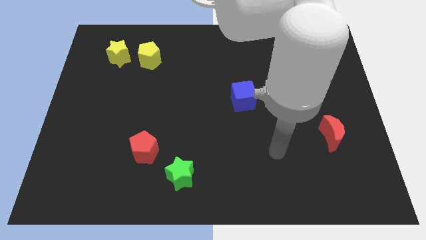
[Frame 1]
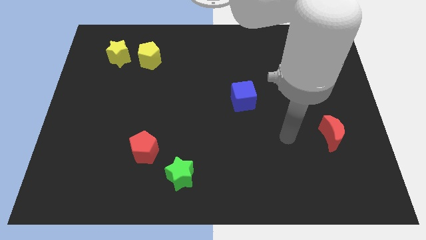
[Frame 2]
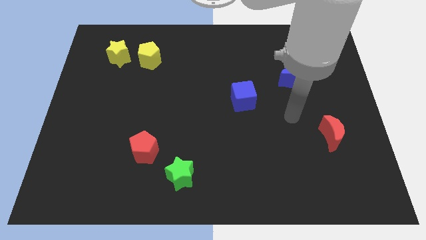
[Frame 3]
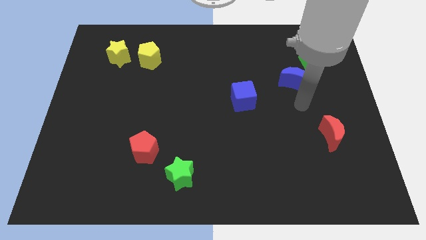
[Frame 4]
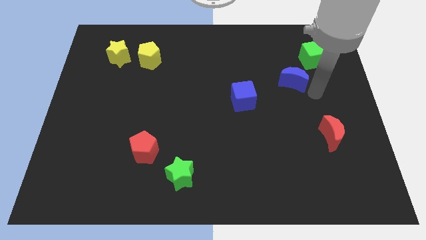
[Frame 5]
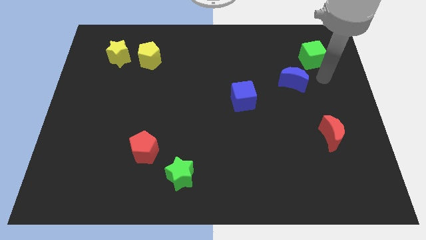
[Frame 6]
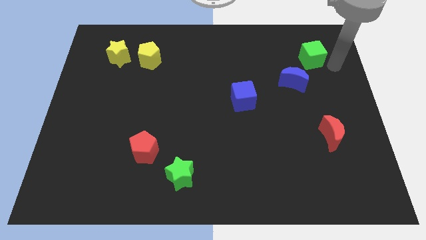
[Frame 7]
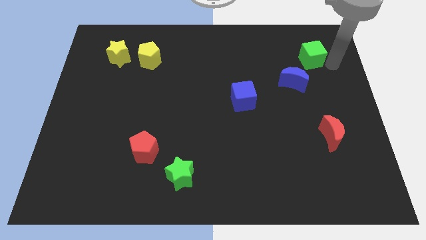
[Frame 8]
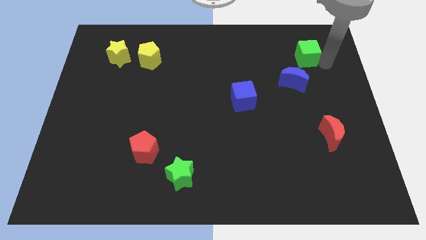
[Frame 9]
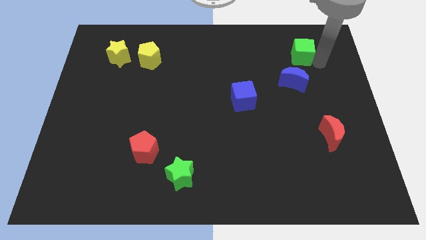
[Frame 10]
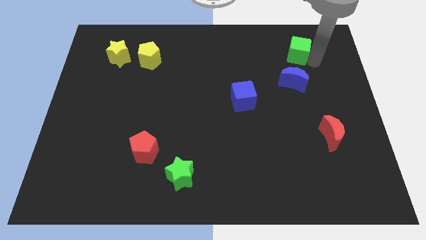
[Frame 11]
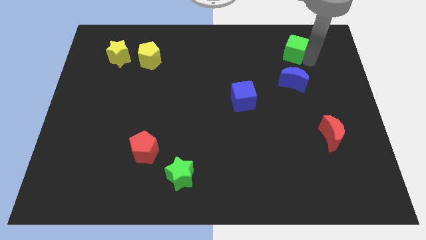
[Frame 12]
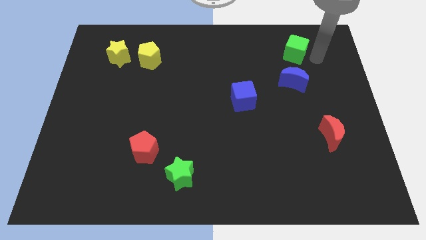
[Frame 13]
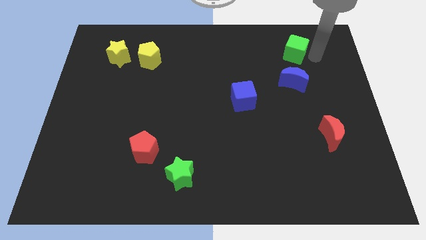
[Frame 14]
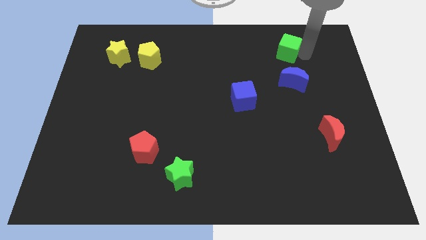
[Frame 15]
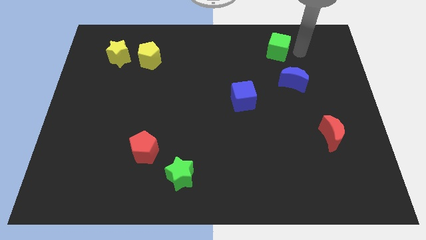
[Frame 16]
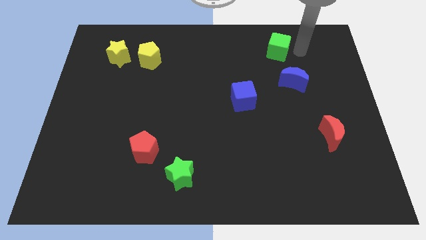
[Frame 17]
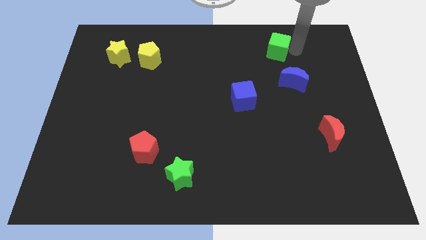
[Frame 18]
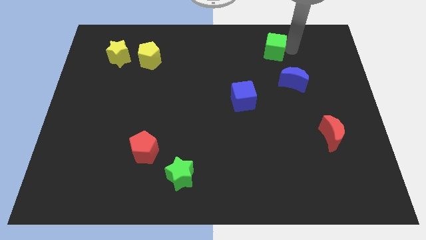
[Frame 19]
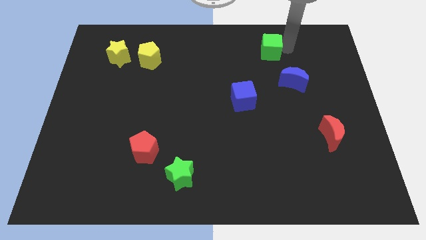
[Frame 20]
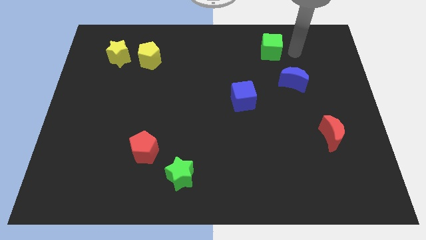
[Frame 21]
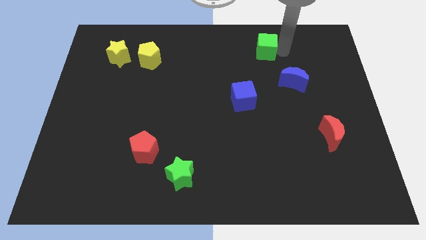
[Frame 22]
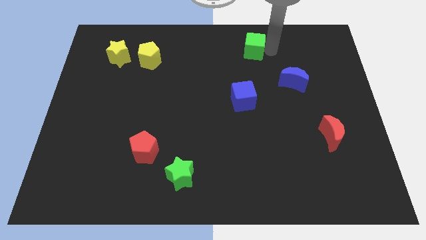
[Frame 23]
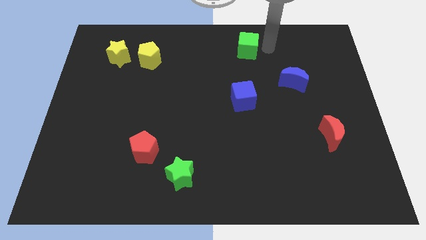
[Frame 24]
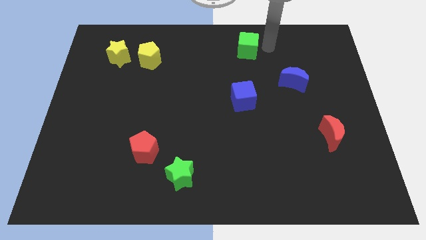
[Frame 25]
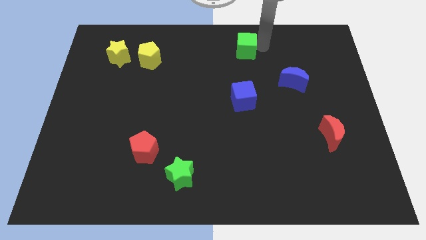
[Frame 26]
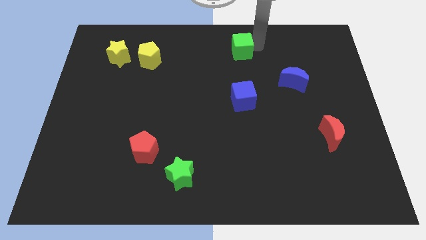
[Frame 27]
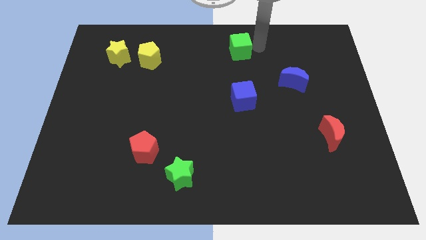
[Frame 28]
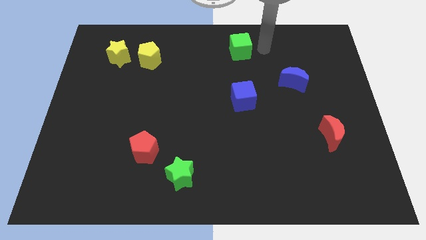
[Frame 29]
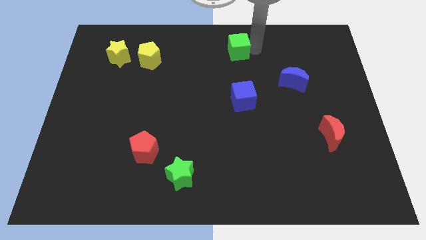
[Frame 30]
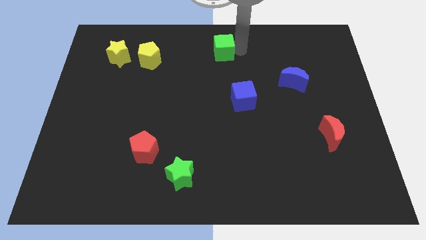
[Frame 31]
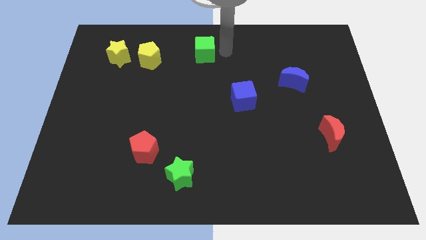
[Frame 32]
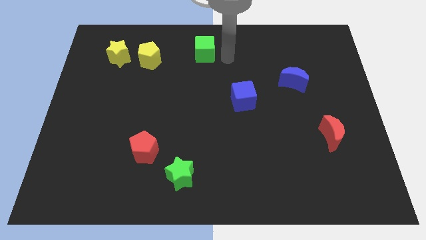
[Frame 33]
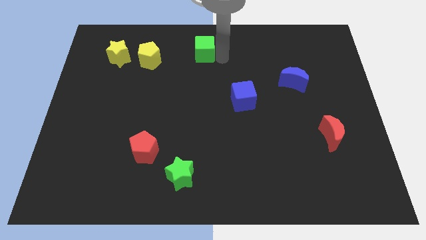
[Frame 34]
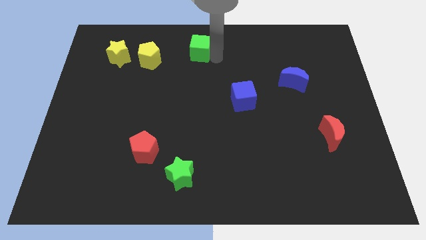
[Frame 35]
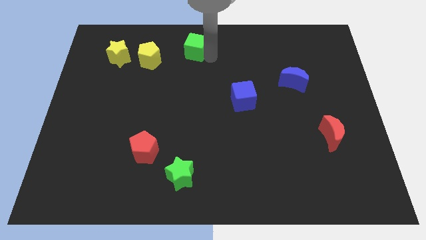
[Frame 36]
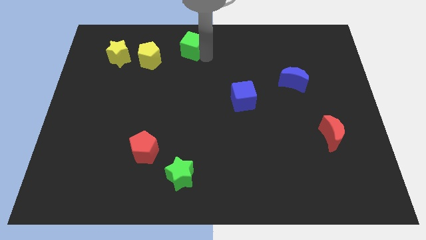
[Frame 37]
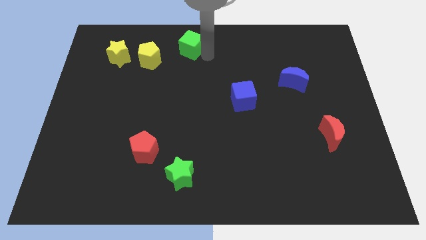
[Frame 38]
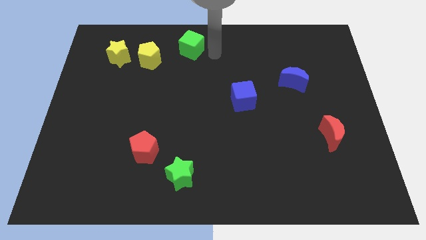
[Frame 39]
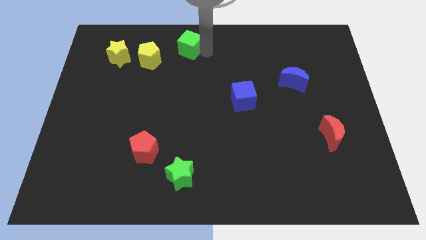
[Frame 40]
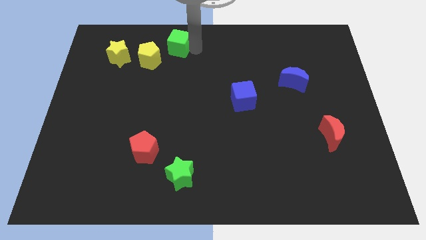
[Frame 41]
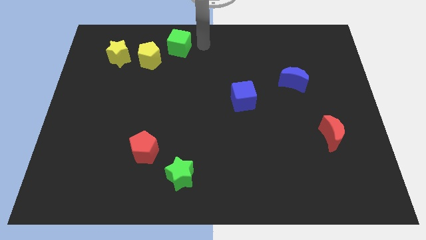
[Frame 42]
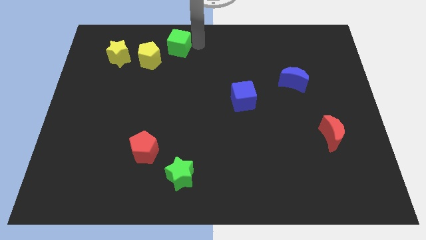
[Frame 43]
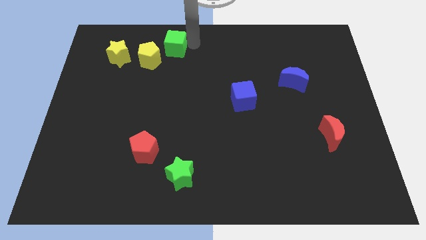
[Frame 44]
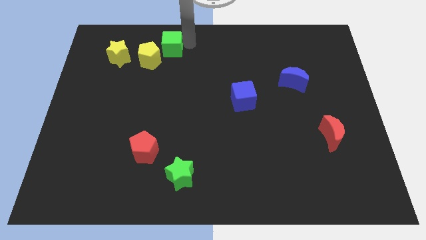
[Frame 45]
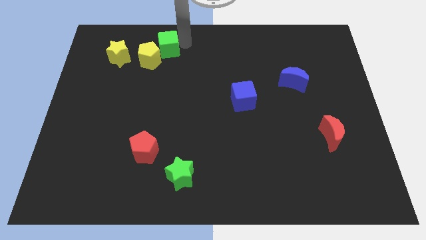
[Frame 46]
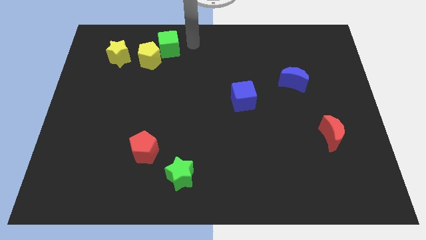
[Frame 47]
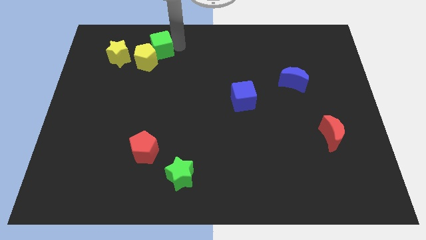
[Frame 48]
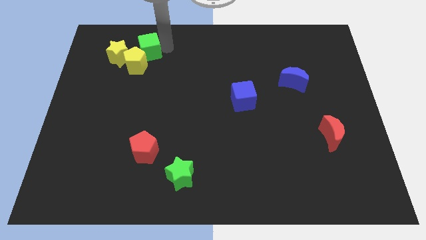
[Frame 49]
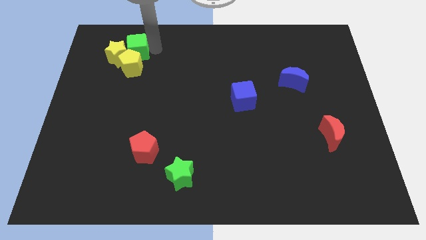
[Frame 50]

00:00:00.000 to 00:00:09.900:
put the green cube next to the yellow star

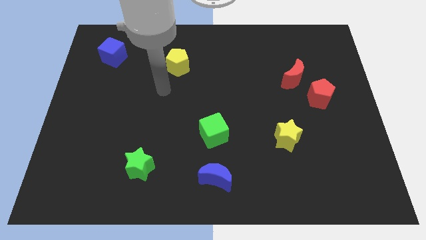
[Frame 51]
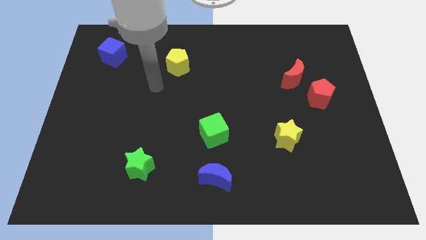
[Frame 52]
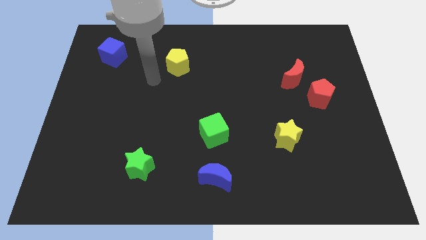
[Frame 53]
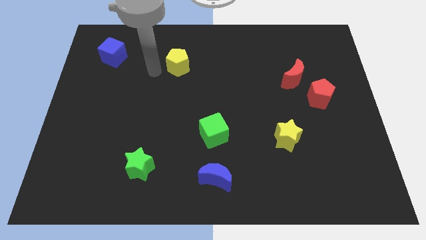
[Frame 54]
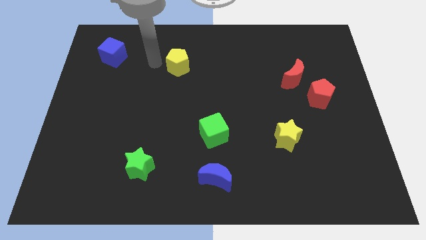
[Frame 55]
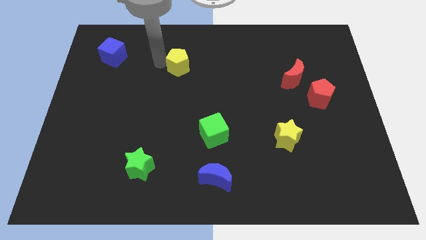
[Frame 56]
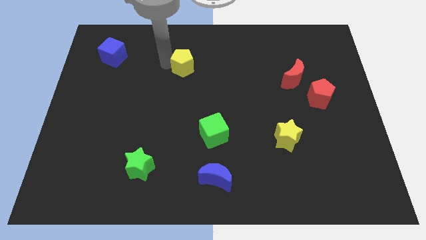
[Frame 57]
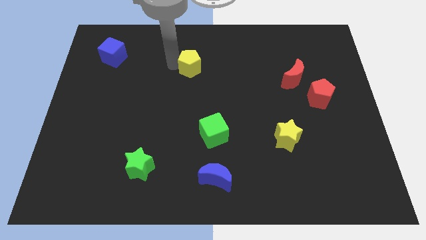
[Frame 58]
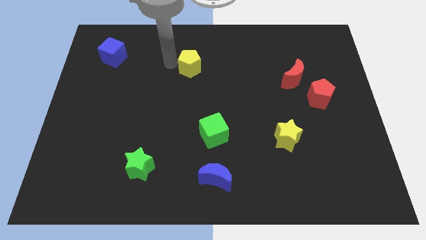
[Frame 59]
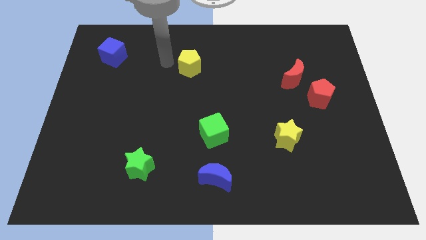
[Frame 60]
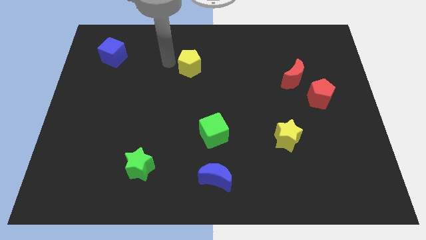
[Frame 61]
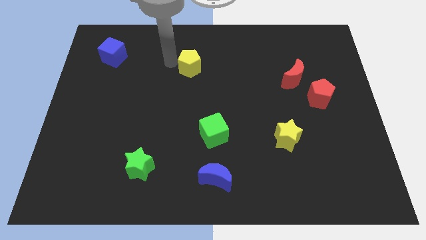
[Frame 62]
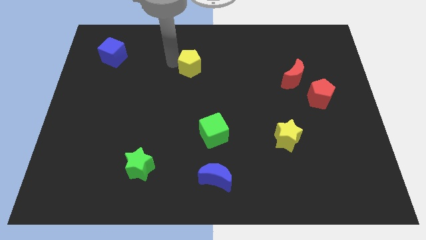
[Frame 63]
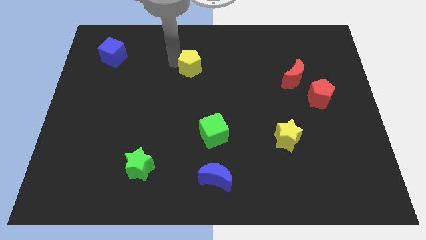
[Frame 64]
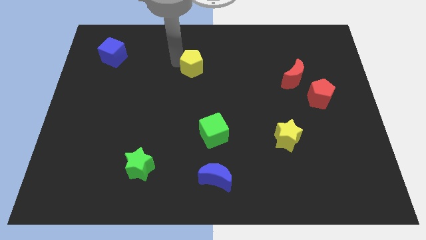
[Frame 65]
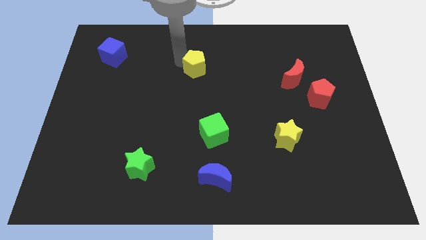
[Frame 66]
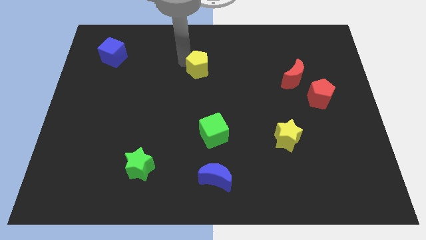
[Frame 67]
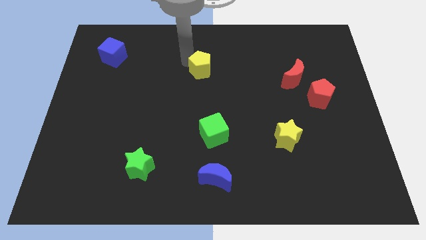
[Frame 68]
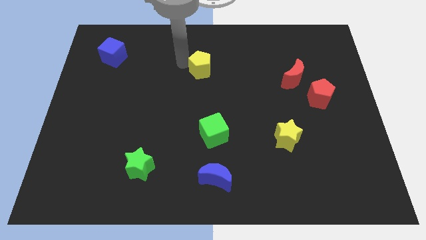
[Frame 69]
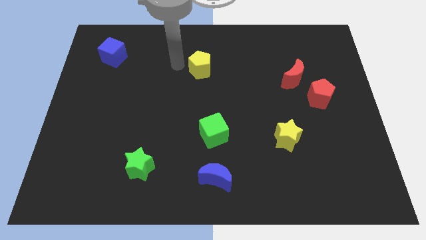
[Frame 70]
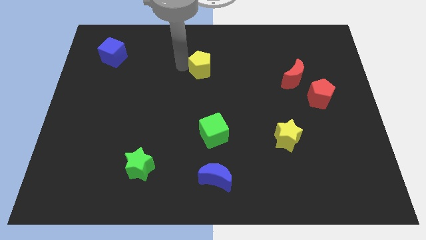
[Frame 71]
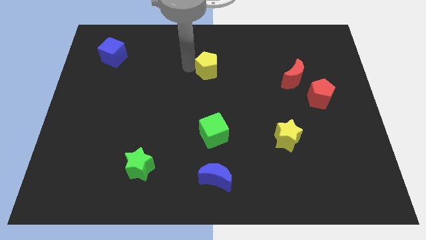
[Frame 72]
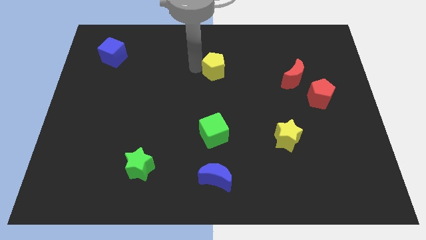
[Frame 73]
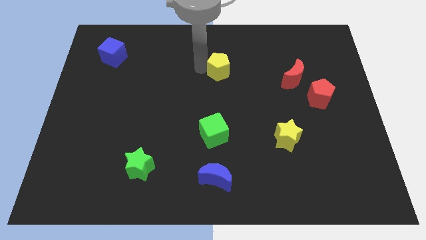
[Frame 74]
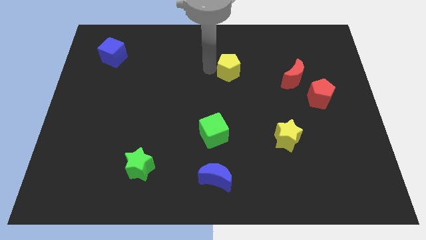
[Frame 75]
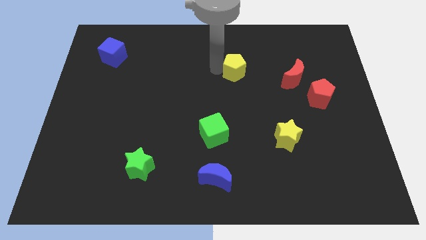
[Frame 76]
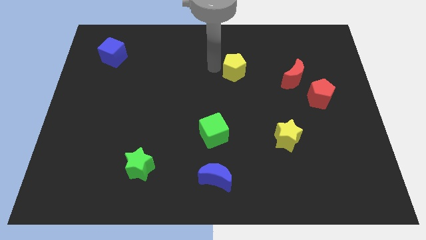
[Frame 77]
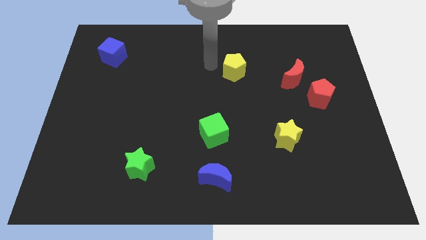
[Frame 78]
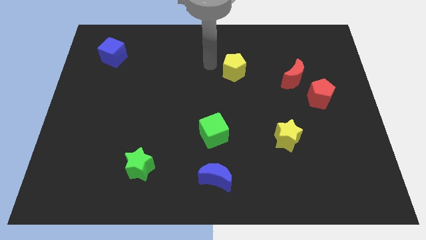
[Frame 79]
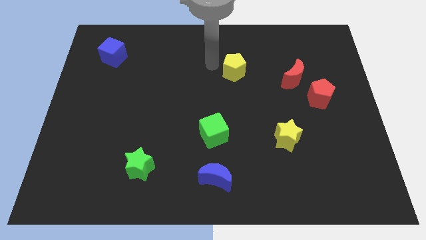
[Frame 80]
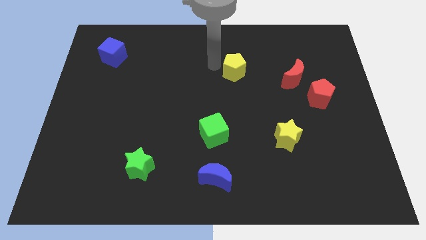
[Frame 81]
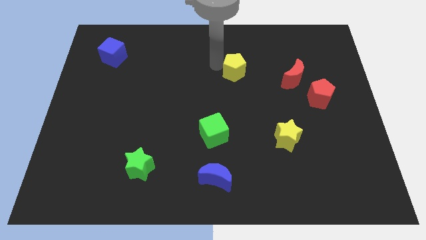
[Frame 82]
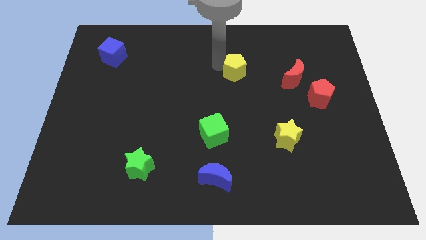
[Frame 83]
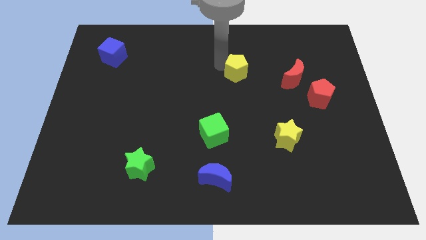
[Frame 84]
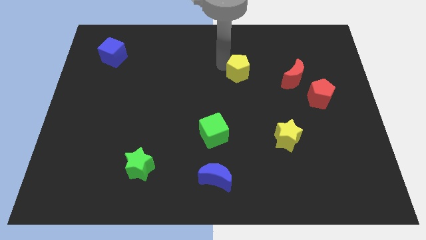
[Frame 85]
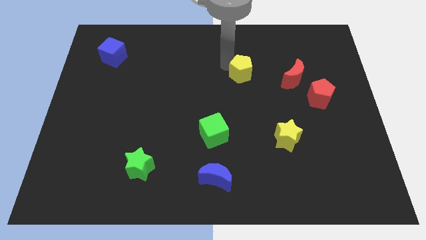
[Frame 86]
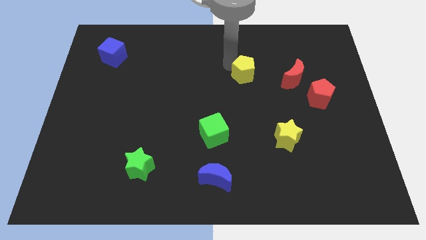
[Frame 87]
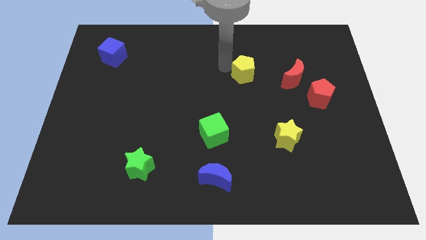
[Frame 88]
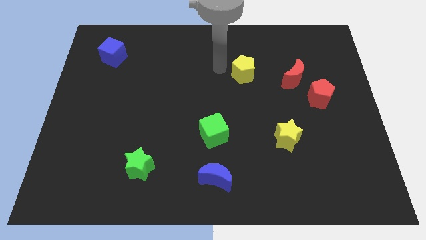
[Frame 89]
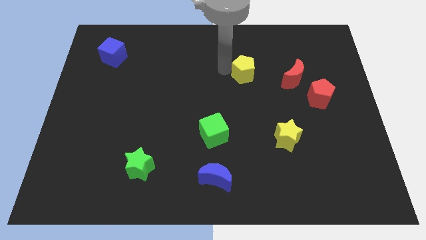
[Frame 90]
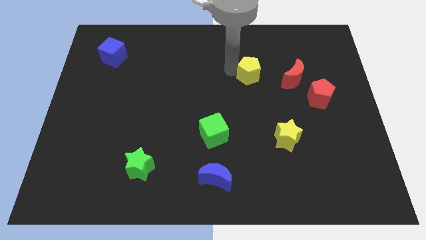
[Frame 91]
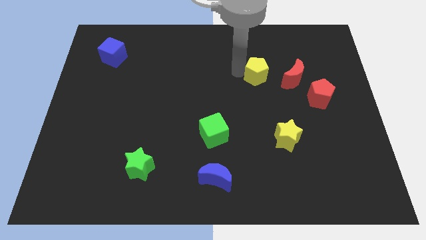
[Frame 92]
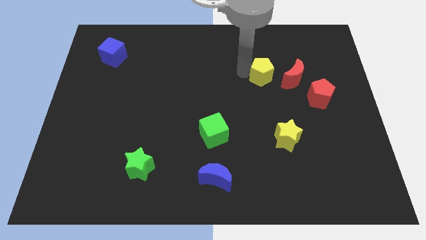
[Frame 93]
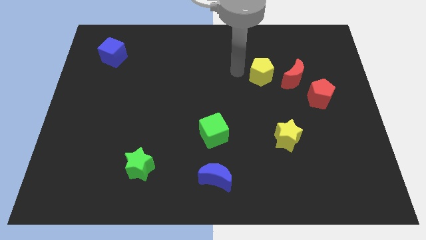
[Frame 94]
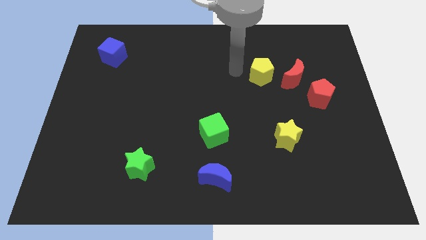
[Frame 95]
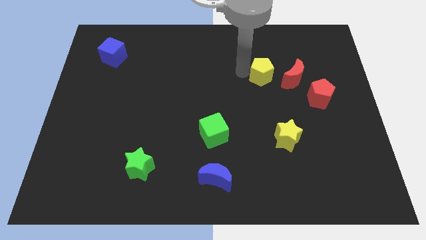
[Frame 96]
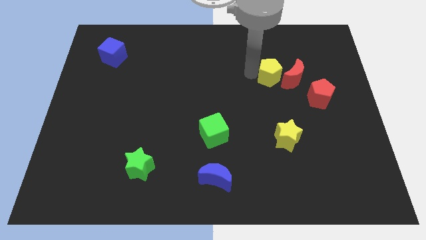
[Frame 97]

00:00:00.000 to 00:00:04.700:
push the yellow pentagon to the red moon
